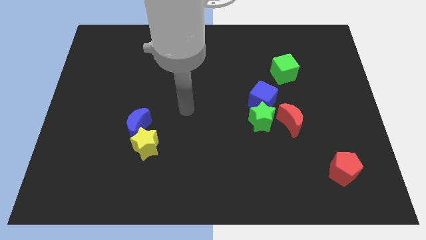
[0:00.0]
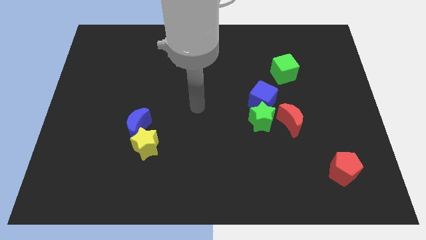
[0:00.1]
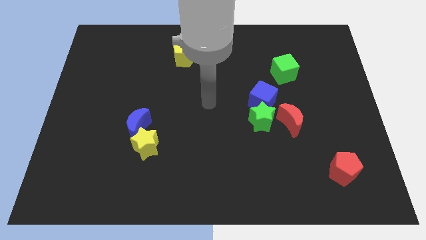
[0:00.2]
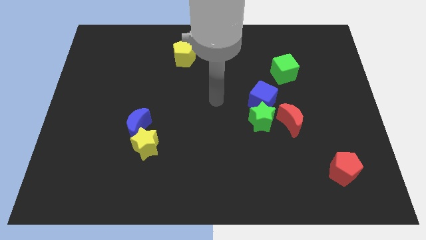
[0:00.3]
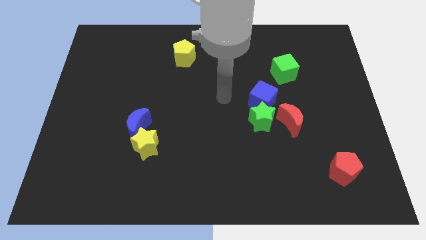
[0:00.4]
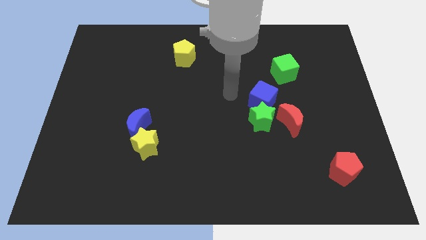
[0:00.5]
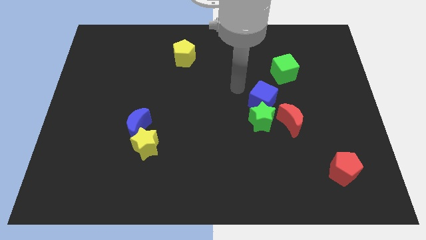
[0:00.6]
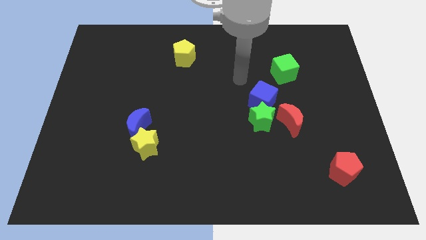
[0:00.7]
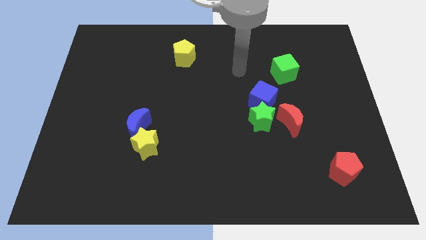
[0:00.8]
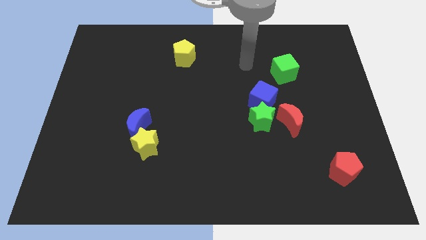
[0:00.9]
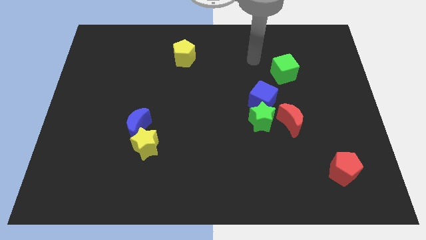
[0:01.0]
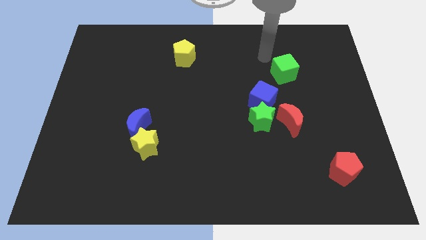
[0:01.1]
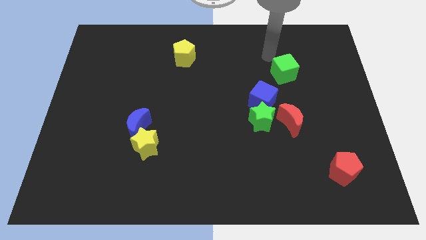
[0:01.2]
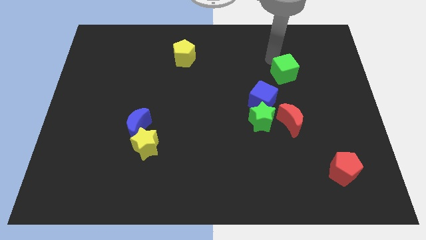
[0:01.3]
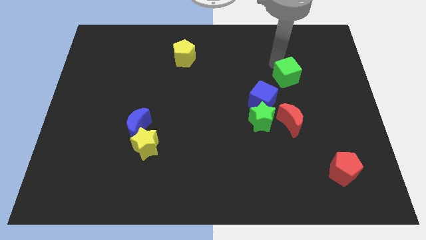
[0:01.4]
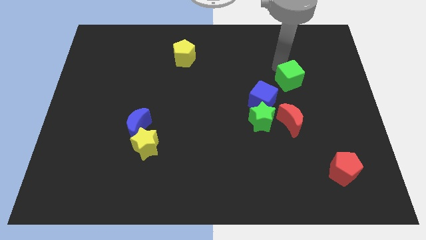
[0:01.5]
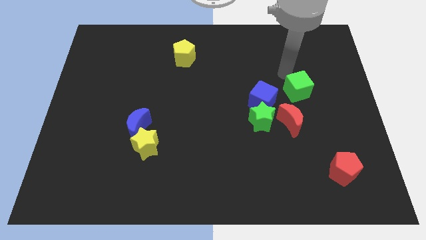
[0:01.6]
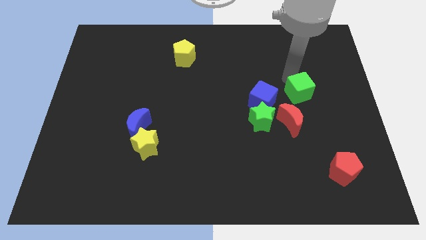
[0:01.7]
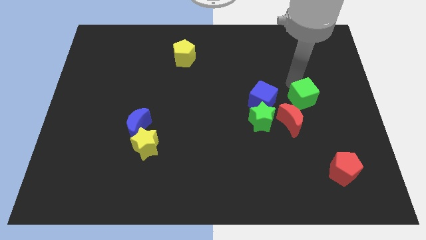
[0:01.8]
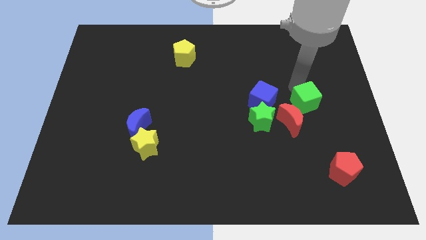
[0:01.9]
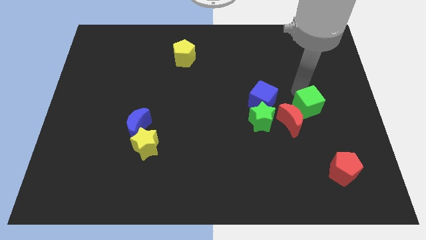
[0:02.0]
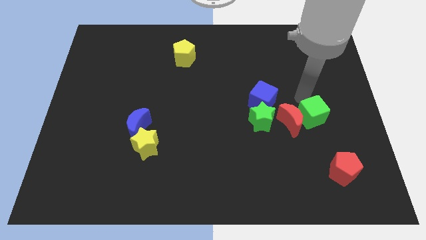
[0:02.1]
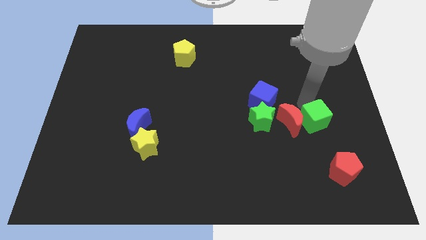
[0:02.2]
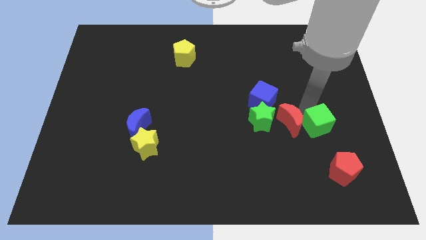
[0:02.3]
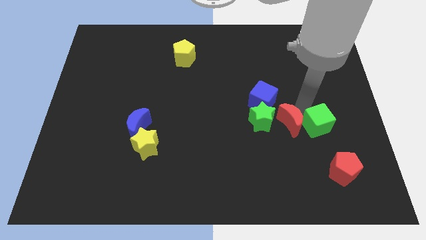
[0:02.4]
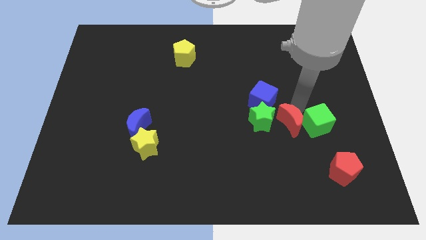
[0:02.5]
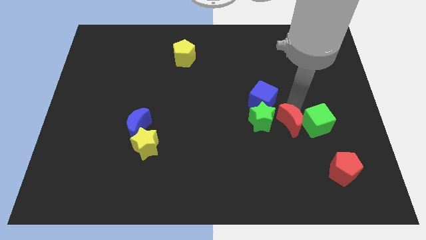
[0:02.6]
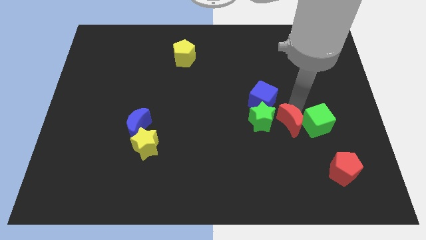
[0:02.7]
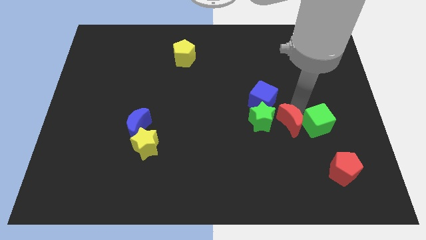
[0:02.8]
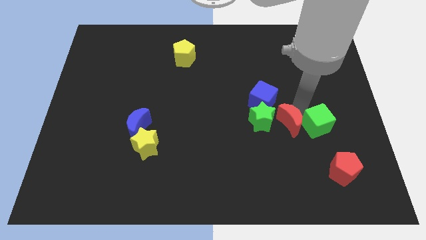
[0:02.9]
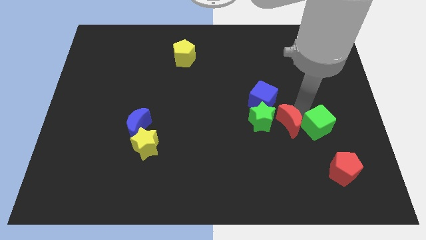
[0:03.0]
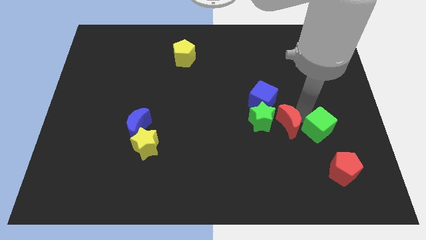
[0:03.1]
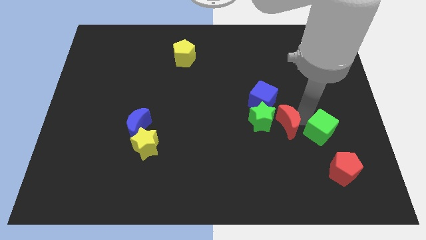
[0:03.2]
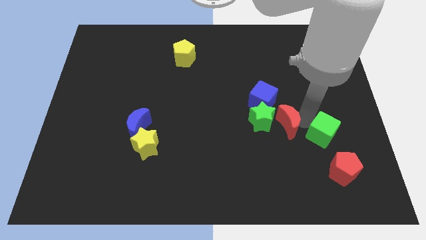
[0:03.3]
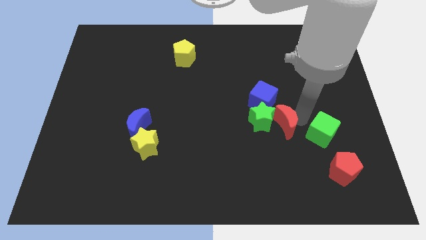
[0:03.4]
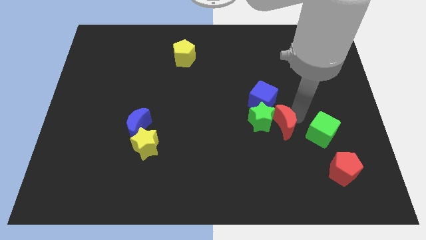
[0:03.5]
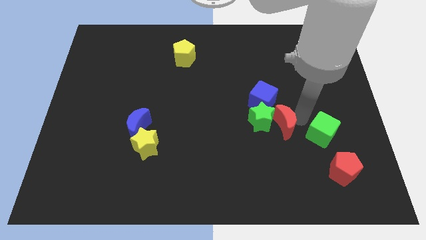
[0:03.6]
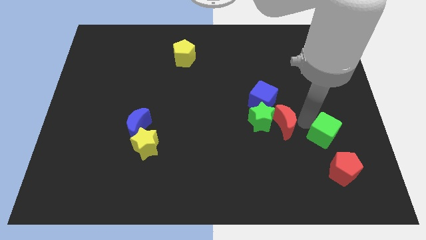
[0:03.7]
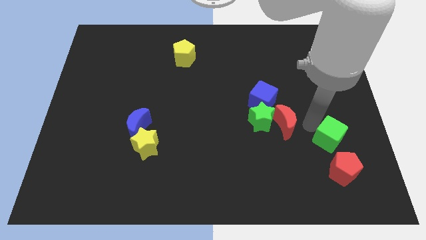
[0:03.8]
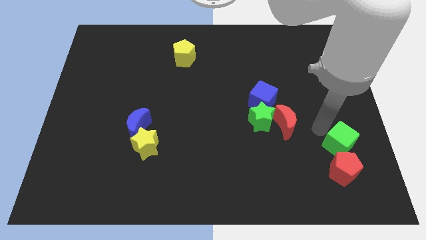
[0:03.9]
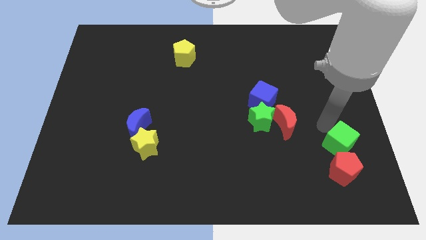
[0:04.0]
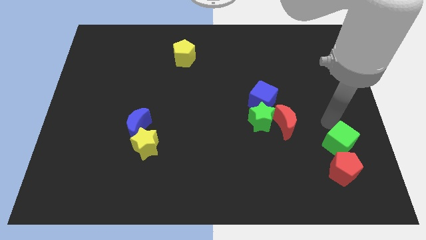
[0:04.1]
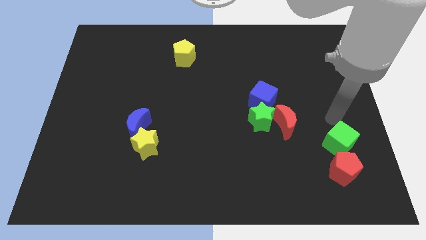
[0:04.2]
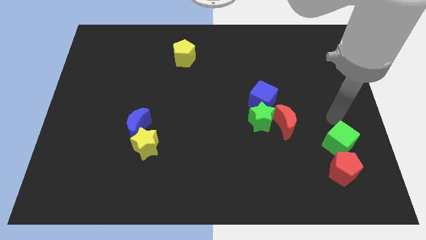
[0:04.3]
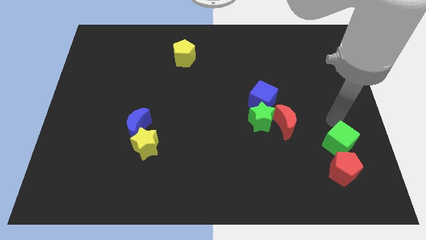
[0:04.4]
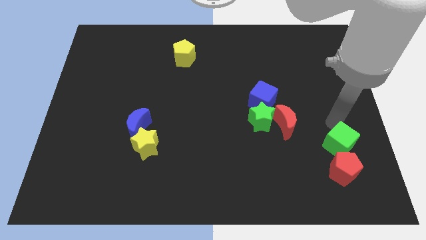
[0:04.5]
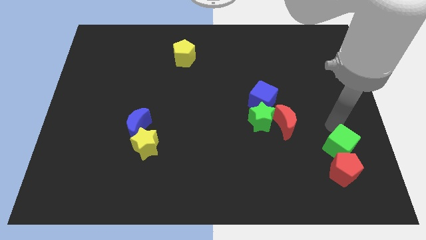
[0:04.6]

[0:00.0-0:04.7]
slide the green cube to the red pentagon

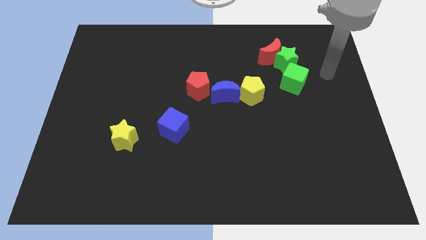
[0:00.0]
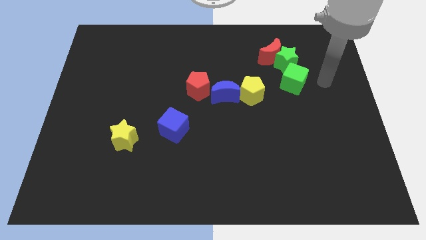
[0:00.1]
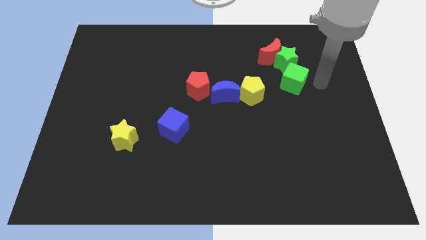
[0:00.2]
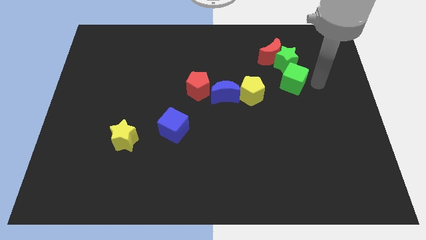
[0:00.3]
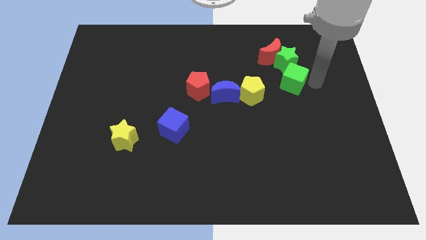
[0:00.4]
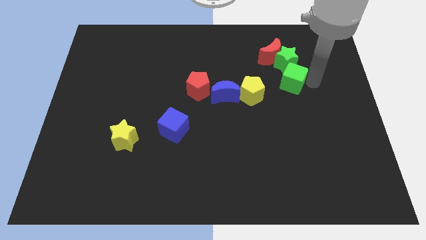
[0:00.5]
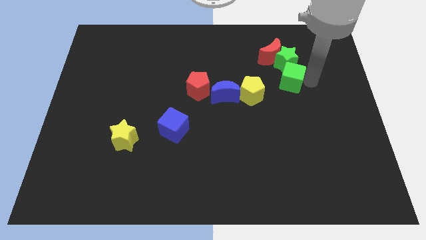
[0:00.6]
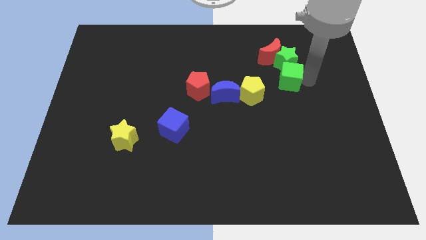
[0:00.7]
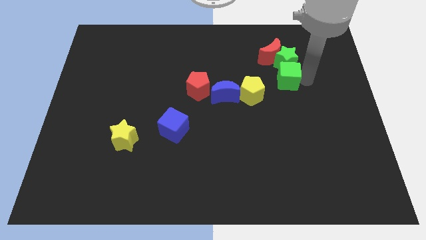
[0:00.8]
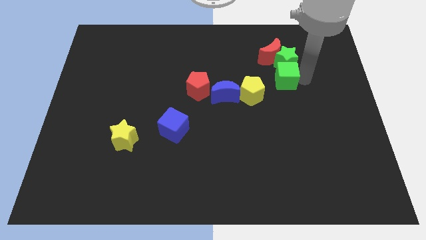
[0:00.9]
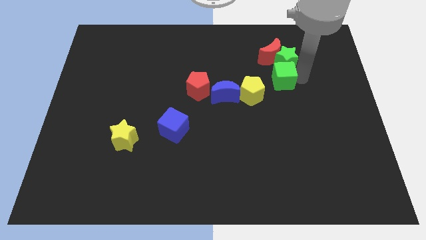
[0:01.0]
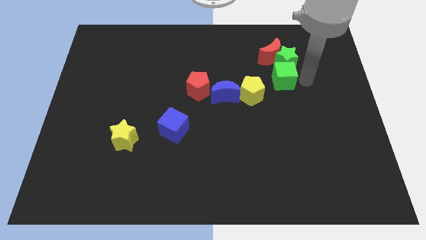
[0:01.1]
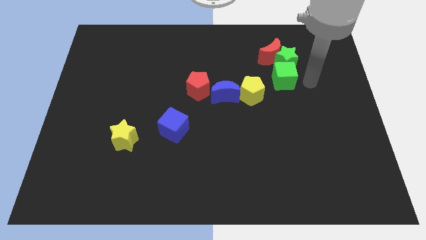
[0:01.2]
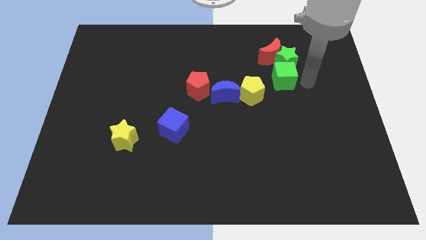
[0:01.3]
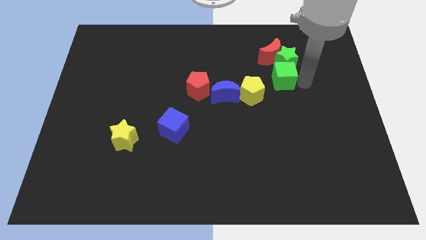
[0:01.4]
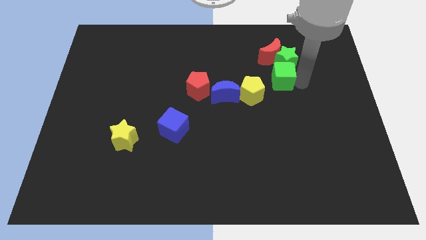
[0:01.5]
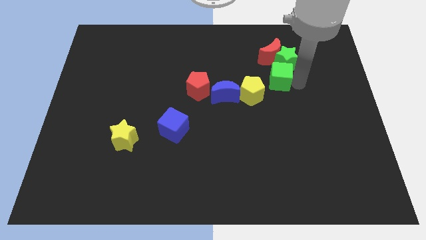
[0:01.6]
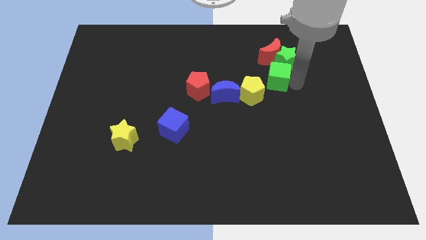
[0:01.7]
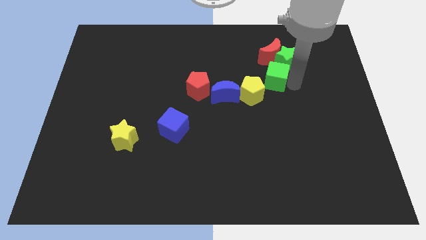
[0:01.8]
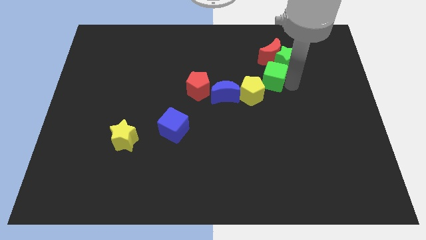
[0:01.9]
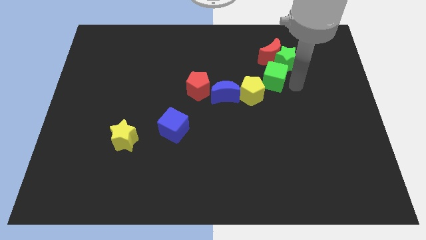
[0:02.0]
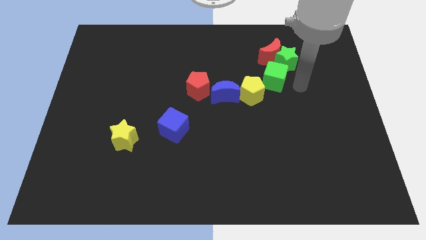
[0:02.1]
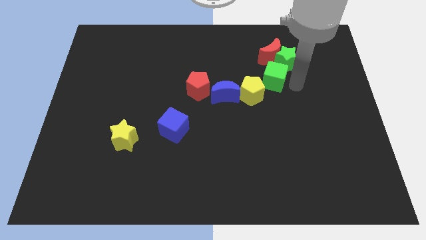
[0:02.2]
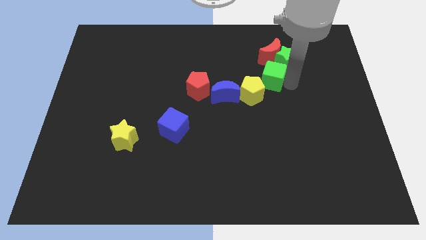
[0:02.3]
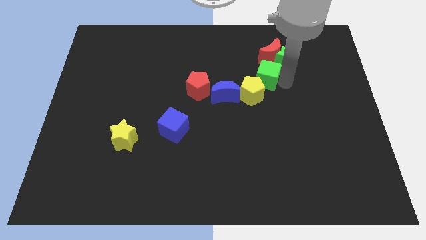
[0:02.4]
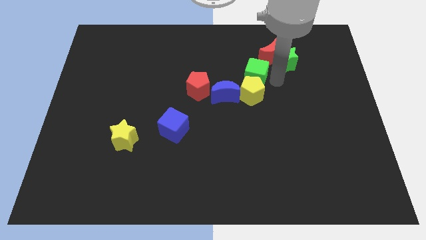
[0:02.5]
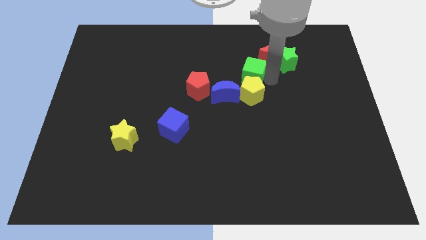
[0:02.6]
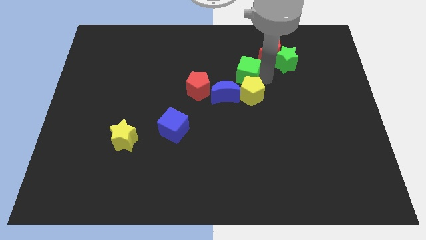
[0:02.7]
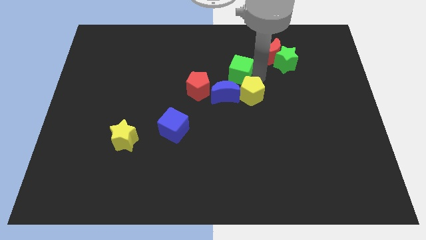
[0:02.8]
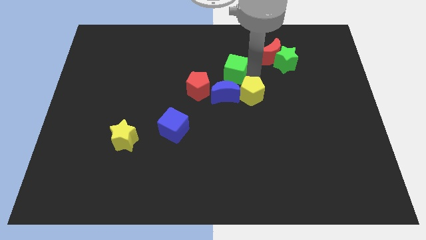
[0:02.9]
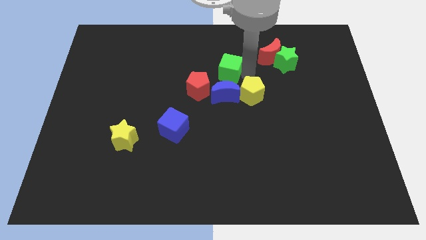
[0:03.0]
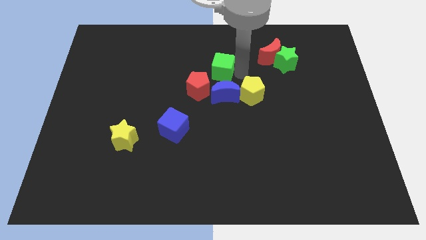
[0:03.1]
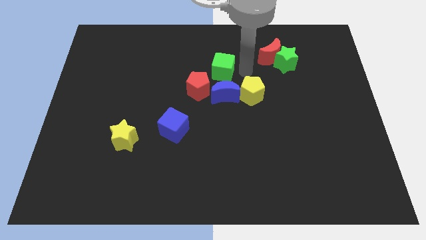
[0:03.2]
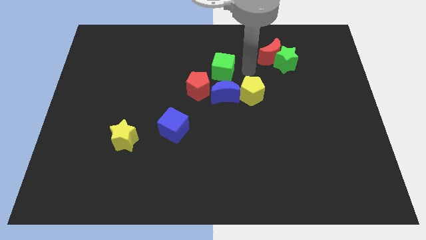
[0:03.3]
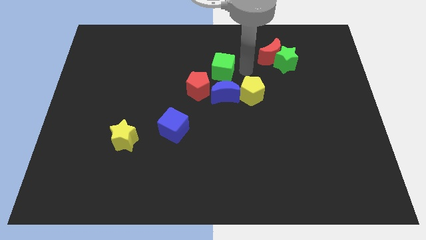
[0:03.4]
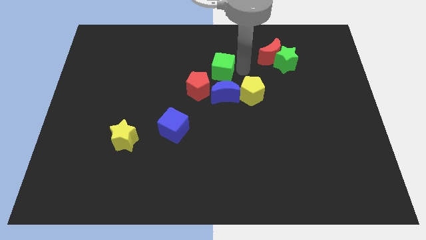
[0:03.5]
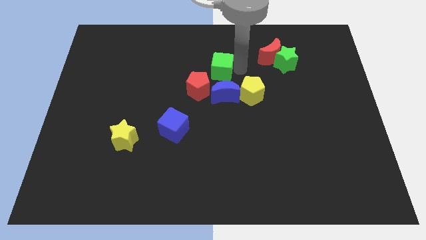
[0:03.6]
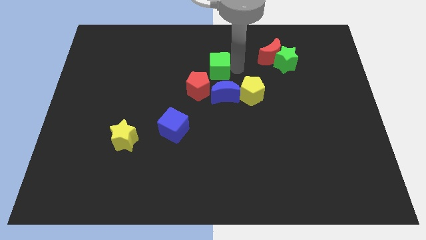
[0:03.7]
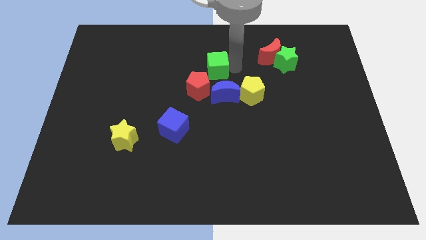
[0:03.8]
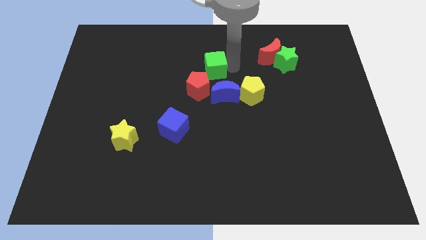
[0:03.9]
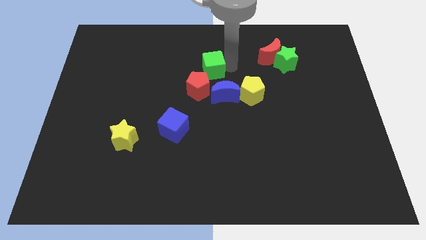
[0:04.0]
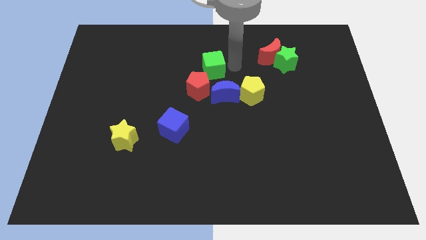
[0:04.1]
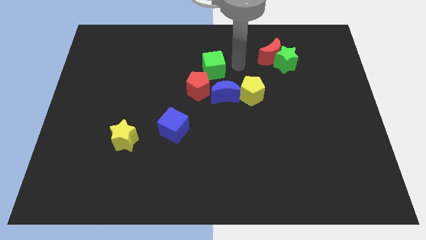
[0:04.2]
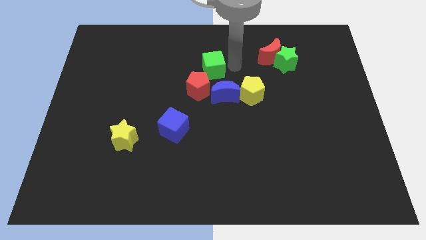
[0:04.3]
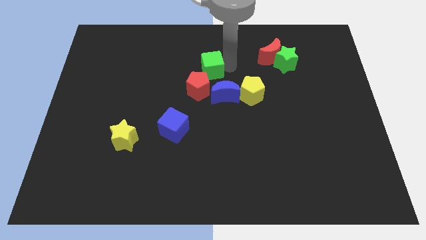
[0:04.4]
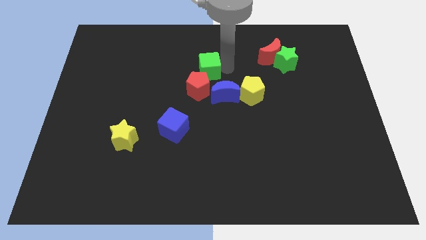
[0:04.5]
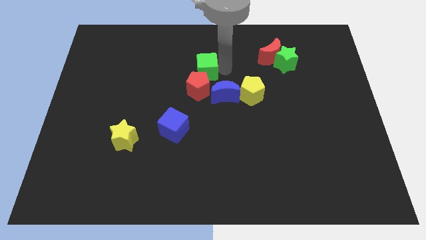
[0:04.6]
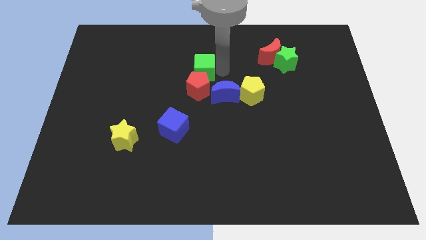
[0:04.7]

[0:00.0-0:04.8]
put the green cube next to the red pentagon
